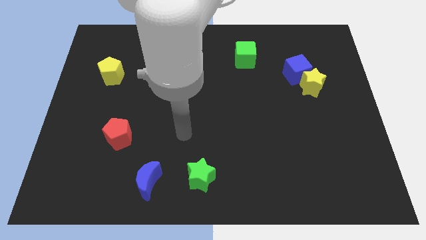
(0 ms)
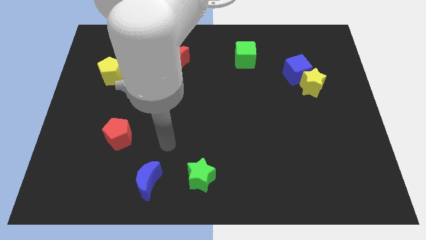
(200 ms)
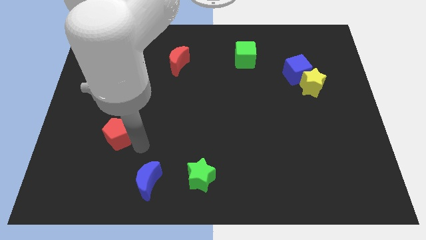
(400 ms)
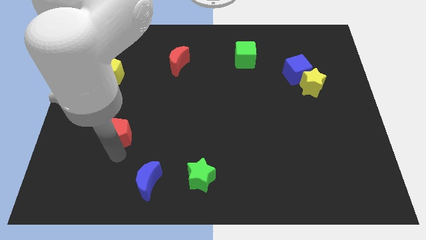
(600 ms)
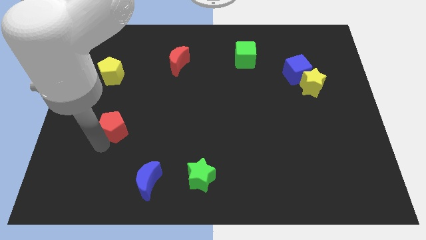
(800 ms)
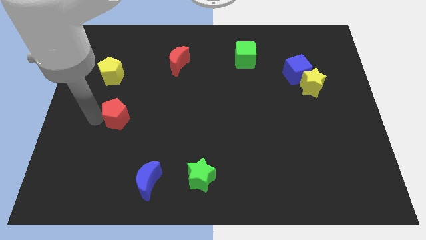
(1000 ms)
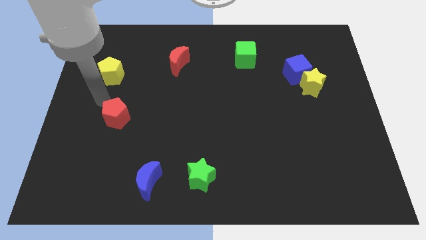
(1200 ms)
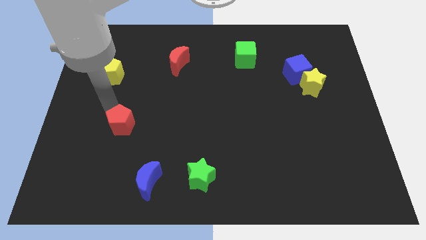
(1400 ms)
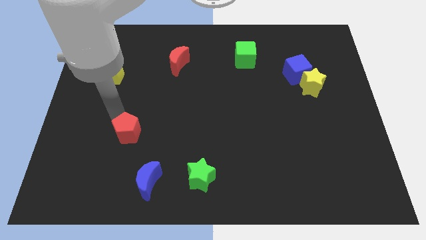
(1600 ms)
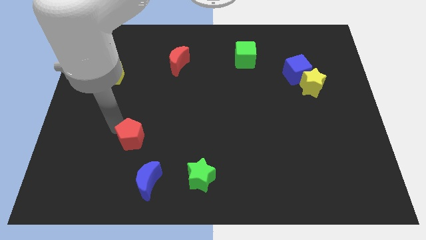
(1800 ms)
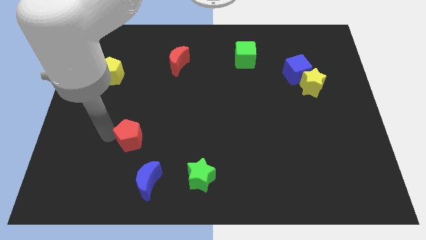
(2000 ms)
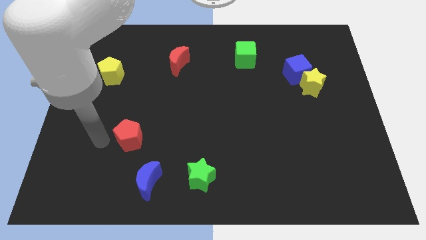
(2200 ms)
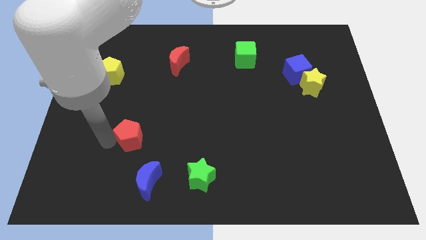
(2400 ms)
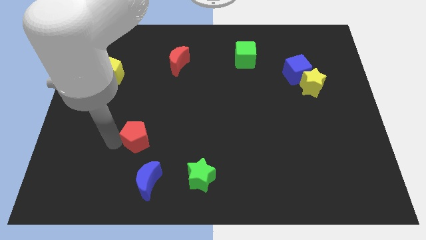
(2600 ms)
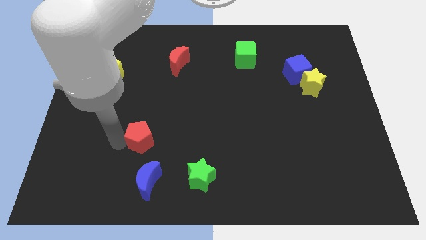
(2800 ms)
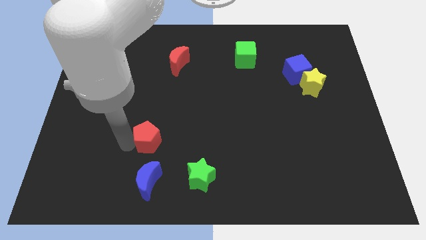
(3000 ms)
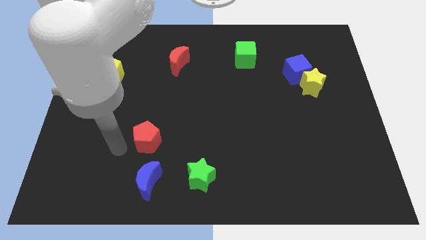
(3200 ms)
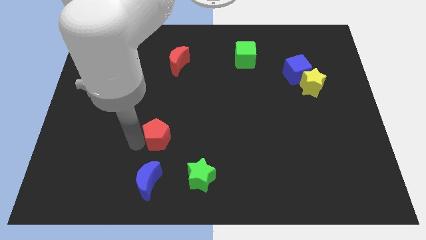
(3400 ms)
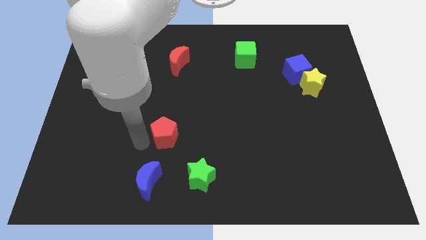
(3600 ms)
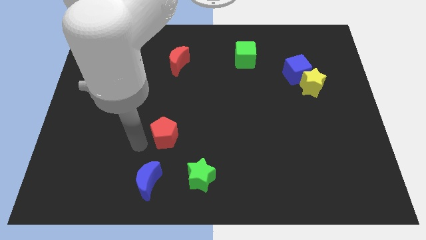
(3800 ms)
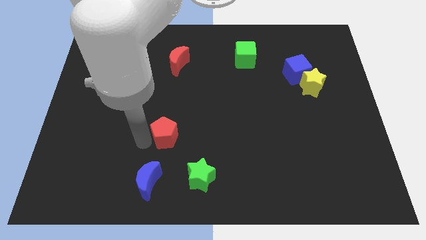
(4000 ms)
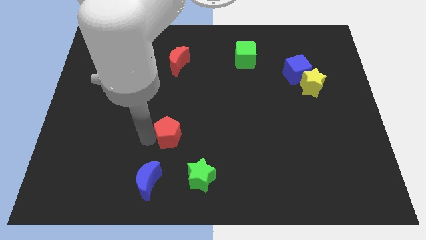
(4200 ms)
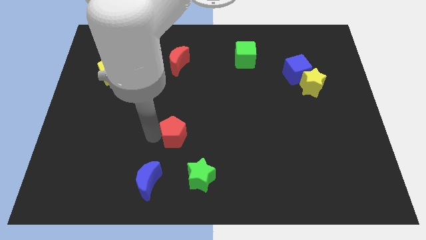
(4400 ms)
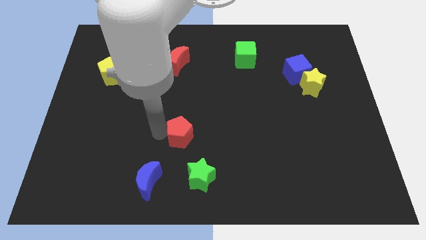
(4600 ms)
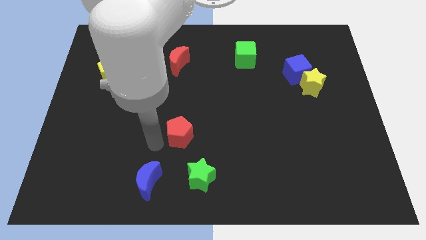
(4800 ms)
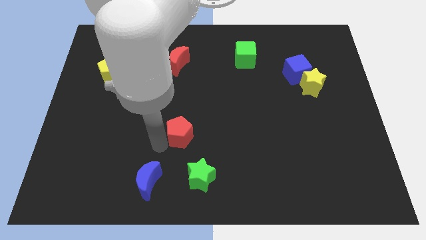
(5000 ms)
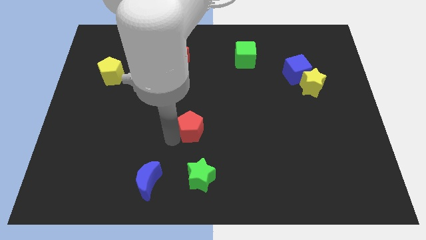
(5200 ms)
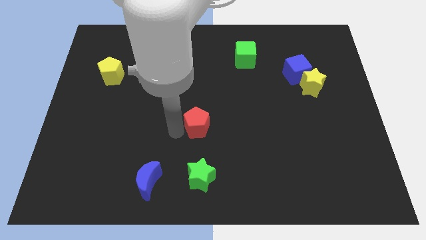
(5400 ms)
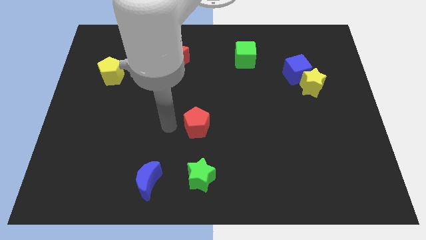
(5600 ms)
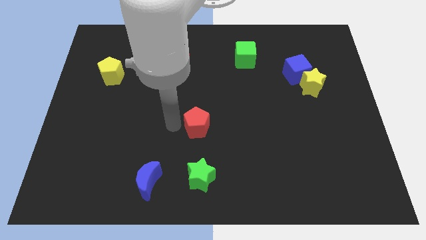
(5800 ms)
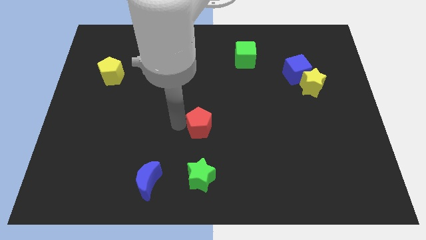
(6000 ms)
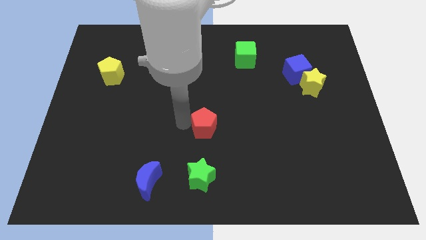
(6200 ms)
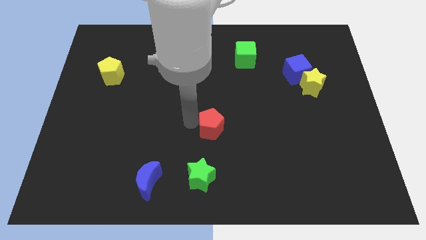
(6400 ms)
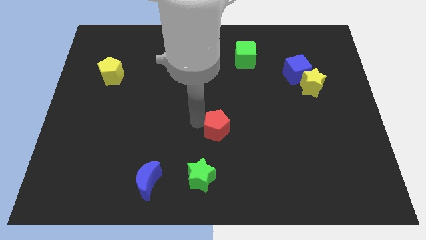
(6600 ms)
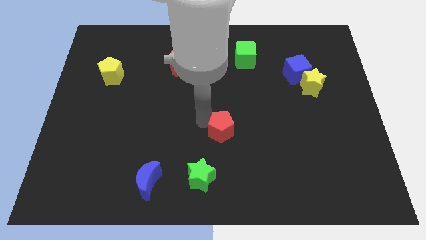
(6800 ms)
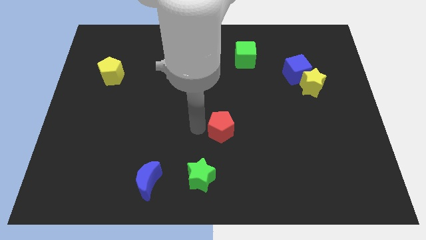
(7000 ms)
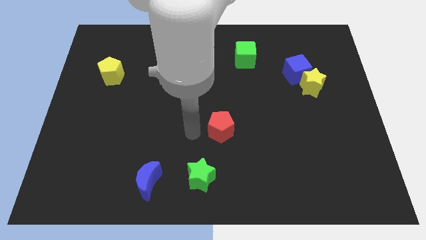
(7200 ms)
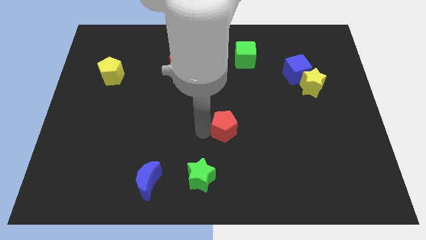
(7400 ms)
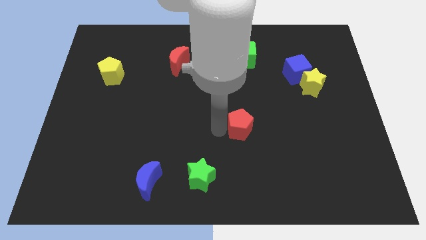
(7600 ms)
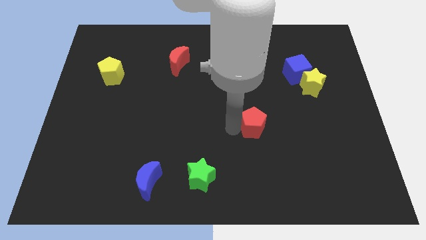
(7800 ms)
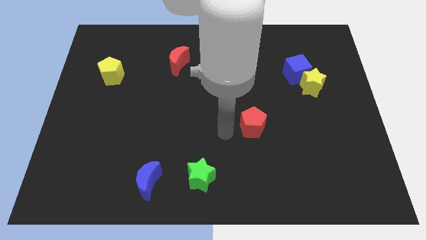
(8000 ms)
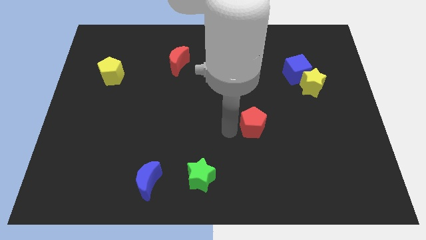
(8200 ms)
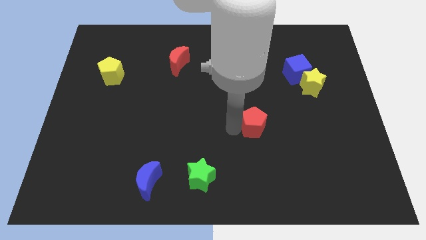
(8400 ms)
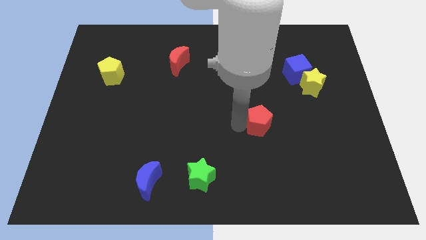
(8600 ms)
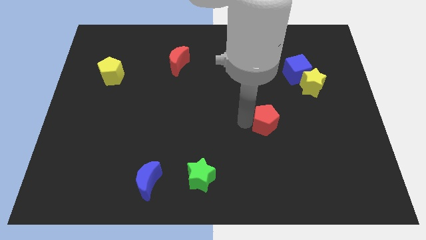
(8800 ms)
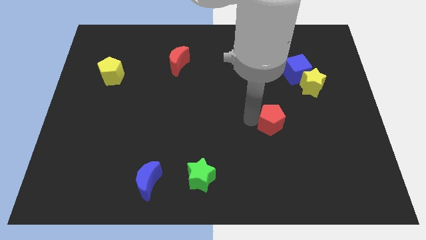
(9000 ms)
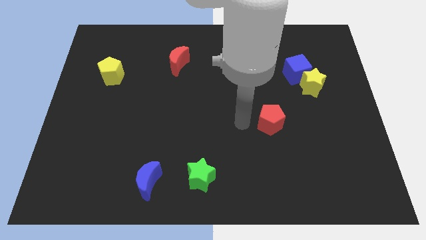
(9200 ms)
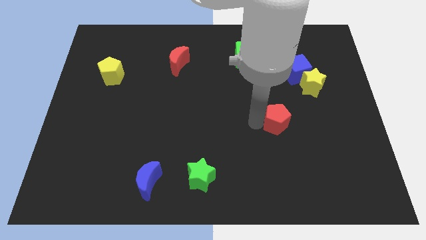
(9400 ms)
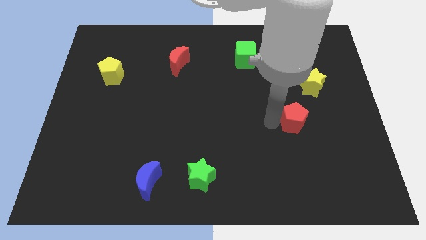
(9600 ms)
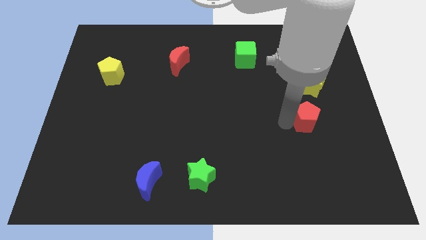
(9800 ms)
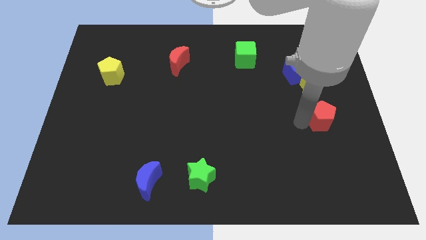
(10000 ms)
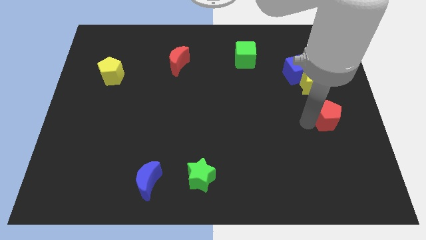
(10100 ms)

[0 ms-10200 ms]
put the red pentagon to the right side

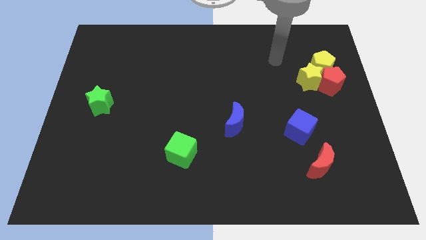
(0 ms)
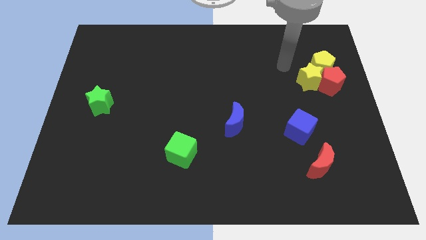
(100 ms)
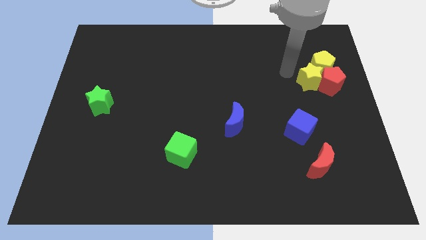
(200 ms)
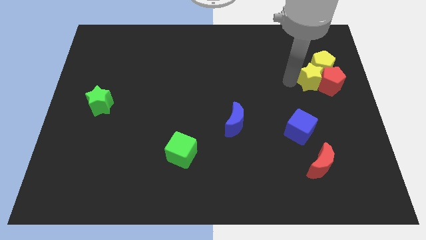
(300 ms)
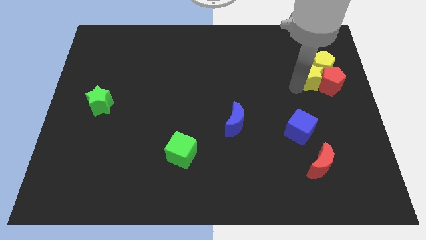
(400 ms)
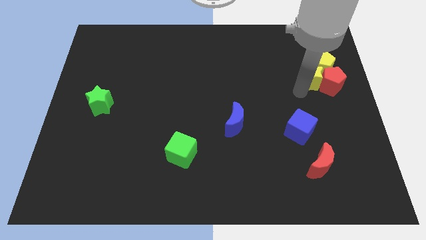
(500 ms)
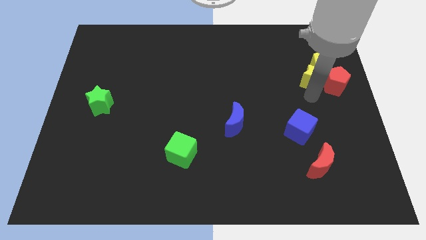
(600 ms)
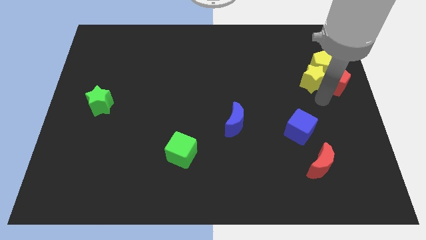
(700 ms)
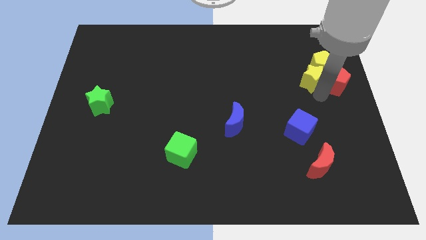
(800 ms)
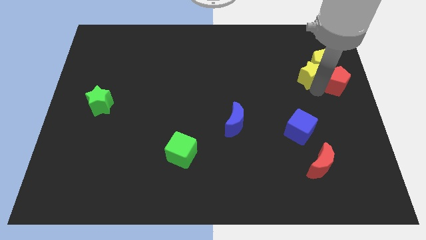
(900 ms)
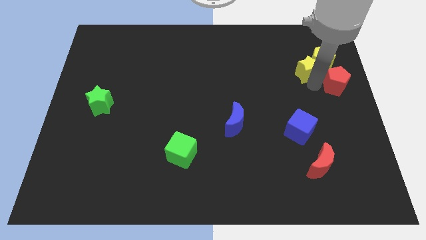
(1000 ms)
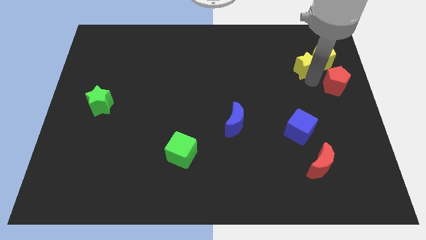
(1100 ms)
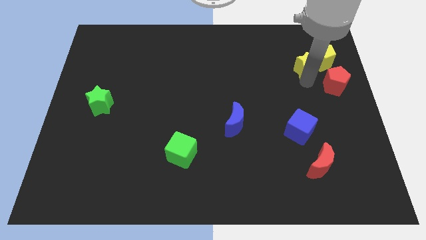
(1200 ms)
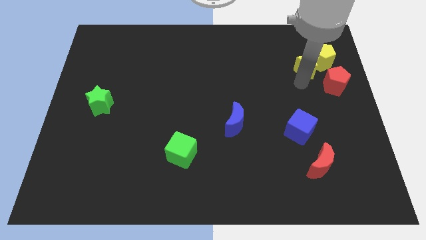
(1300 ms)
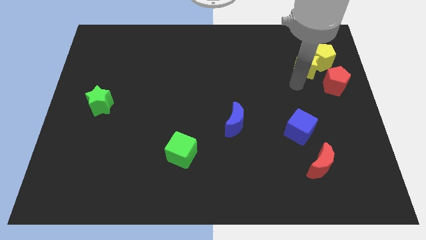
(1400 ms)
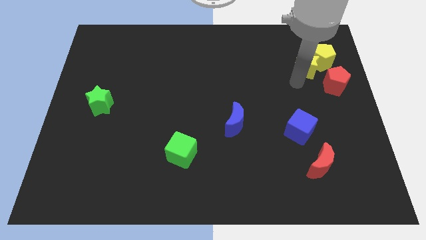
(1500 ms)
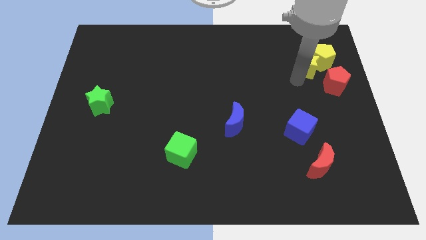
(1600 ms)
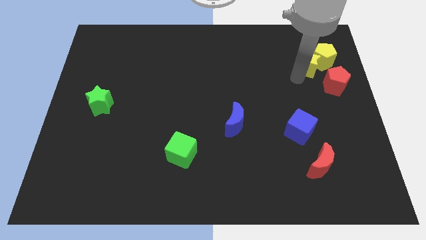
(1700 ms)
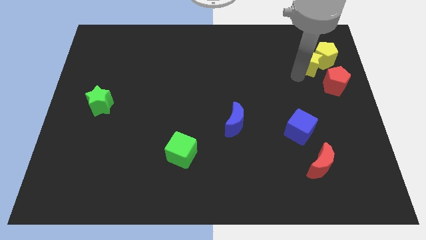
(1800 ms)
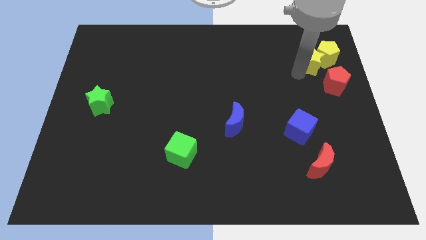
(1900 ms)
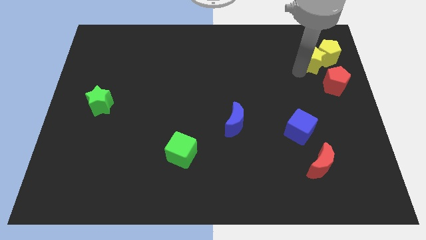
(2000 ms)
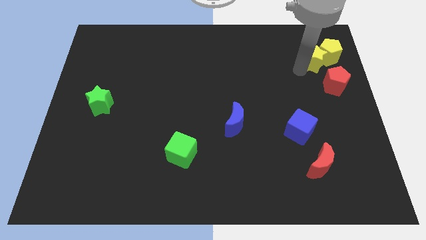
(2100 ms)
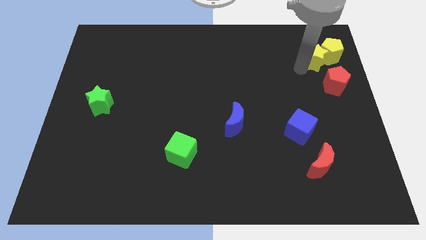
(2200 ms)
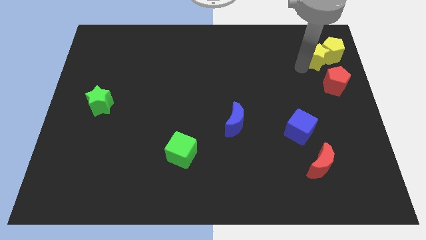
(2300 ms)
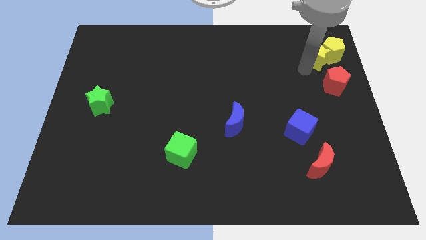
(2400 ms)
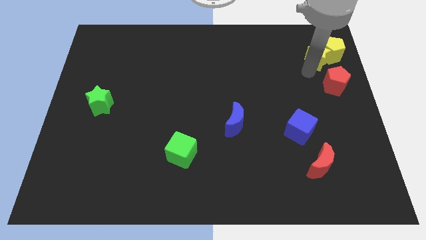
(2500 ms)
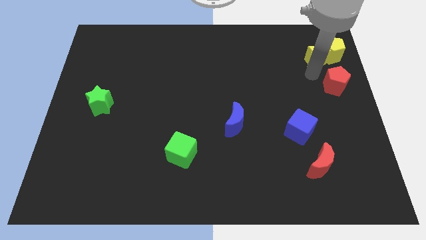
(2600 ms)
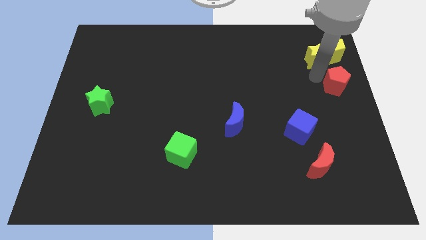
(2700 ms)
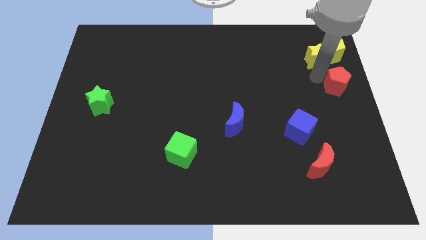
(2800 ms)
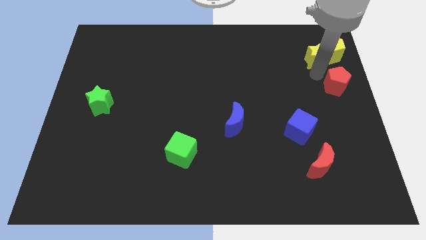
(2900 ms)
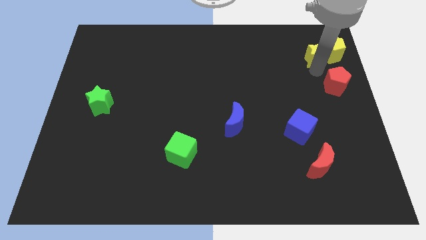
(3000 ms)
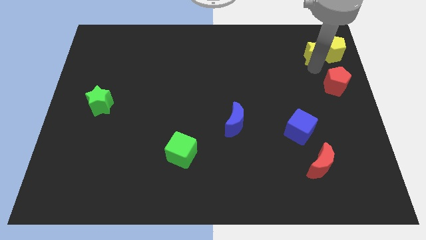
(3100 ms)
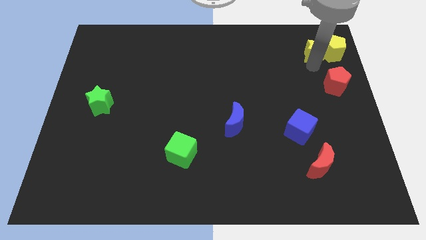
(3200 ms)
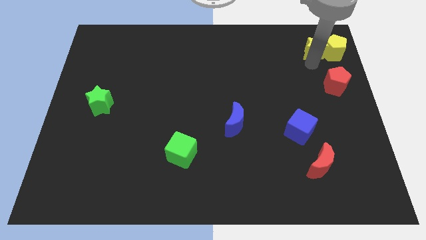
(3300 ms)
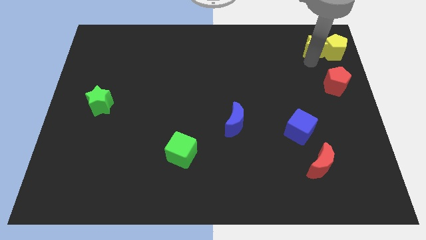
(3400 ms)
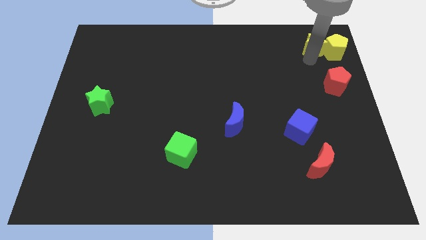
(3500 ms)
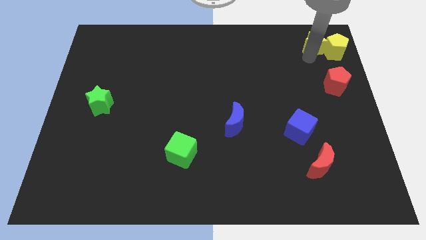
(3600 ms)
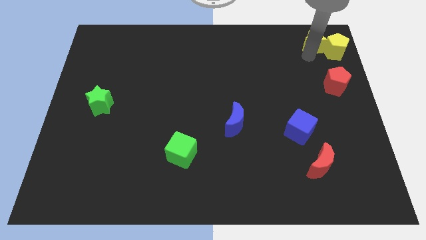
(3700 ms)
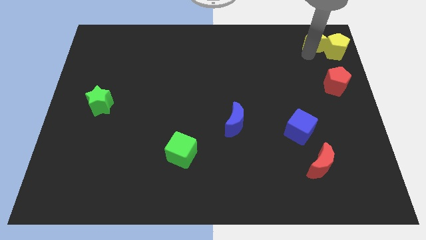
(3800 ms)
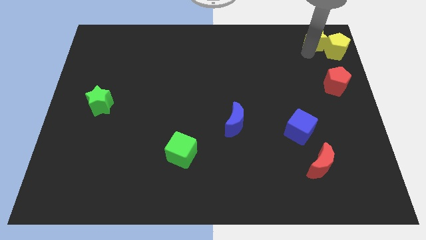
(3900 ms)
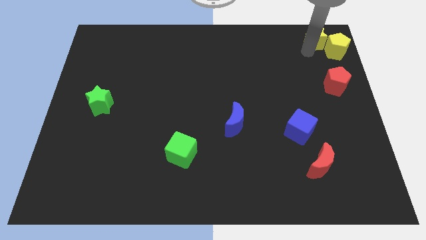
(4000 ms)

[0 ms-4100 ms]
put the yellow star to the upper right corner
